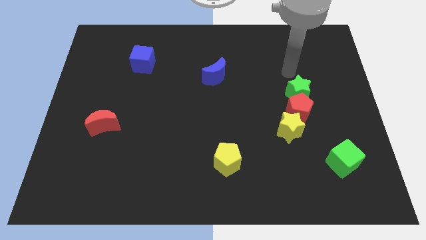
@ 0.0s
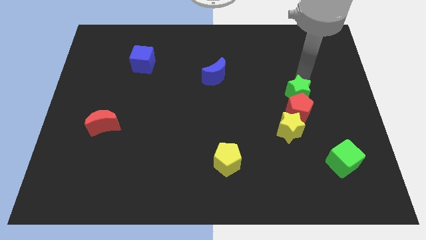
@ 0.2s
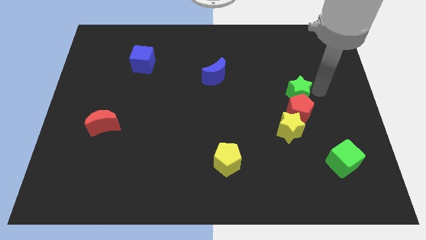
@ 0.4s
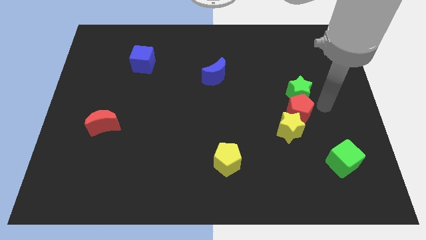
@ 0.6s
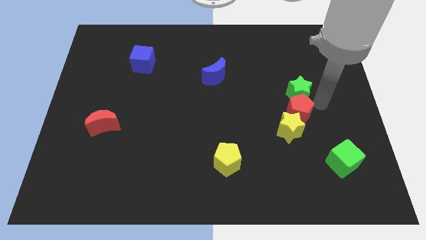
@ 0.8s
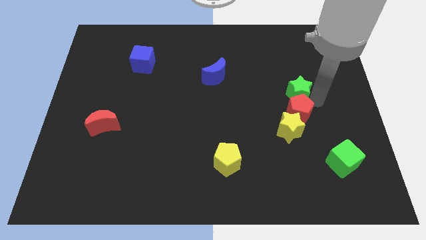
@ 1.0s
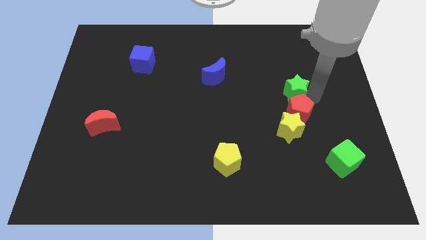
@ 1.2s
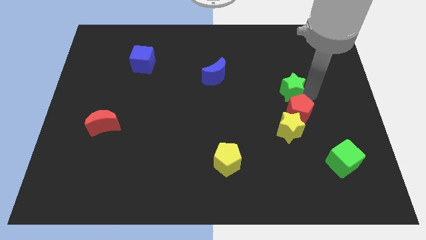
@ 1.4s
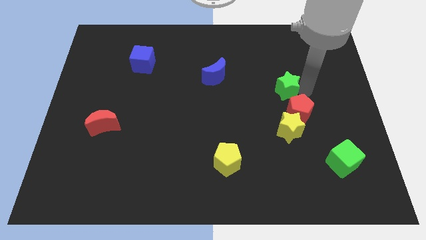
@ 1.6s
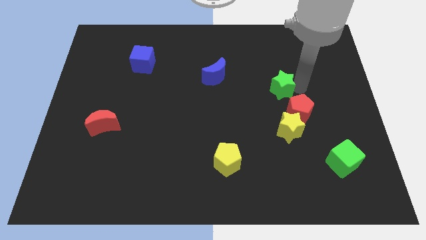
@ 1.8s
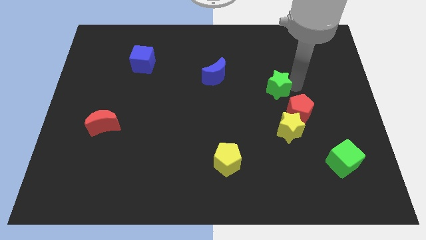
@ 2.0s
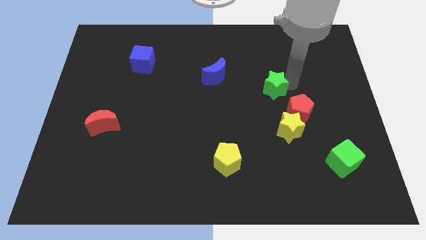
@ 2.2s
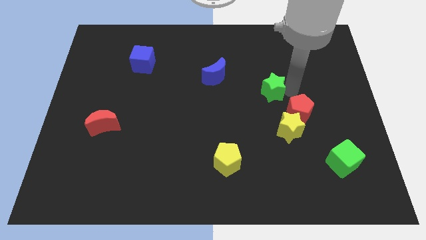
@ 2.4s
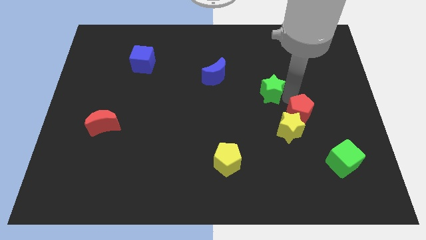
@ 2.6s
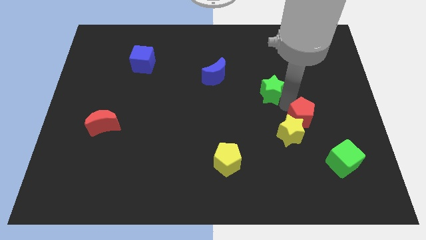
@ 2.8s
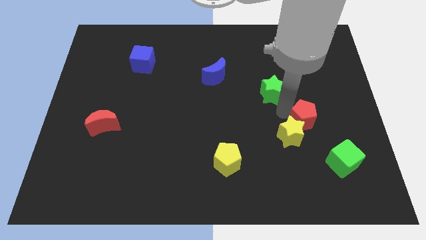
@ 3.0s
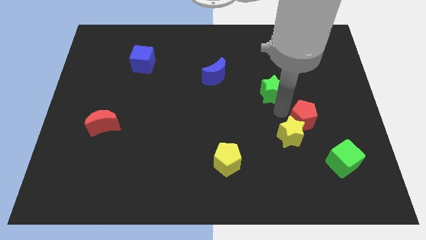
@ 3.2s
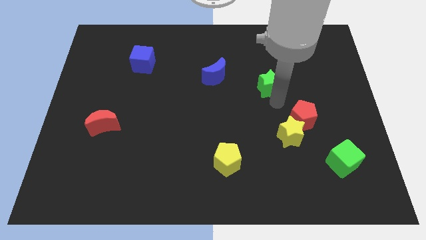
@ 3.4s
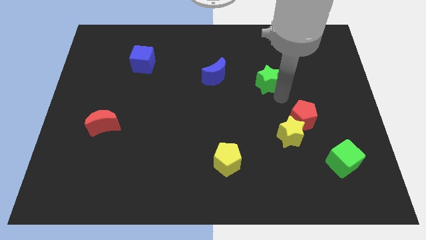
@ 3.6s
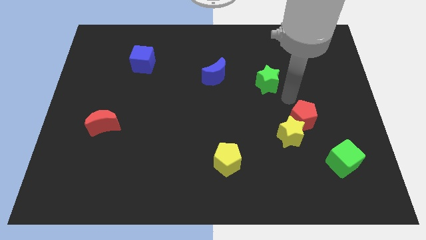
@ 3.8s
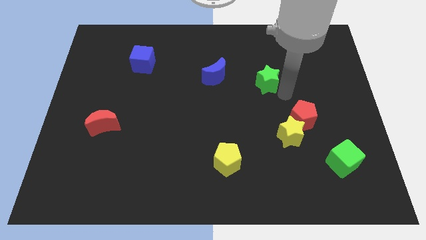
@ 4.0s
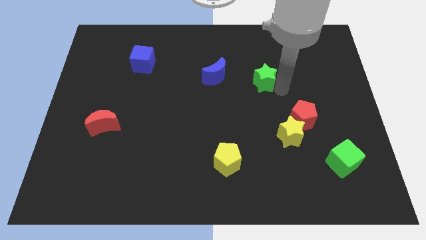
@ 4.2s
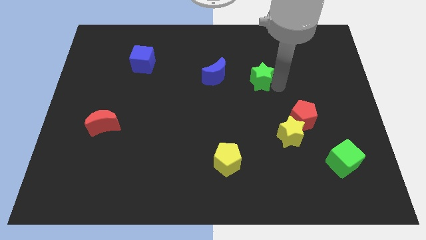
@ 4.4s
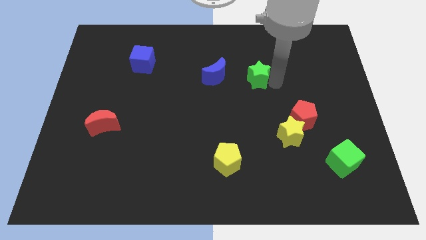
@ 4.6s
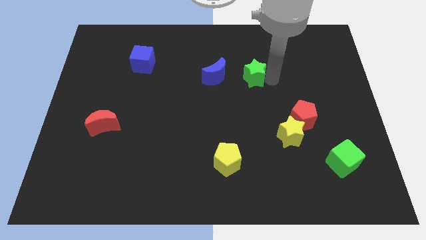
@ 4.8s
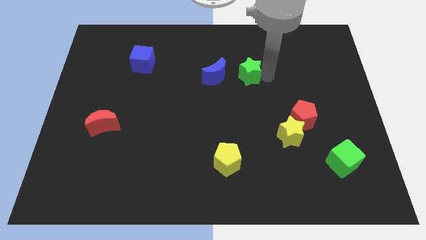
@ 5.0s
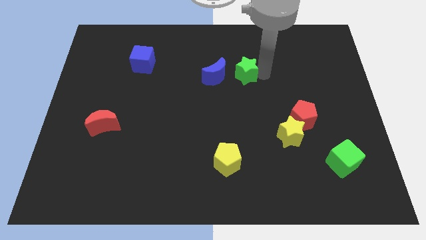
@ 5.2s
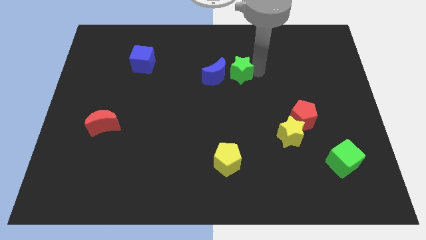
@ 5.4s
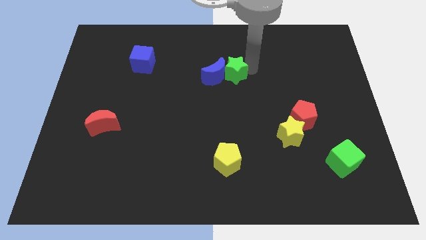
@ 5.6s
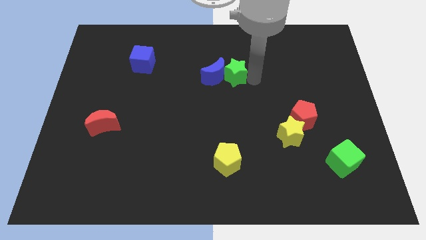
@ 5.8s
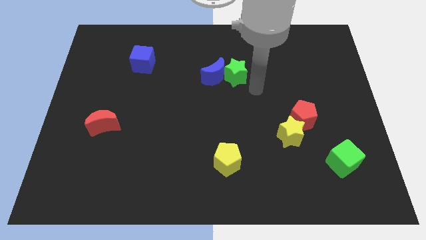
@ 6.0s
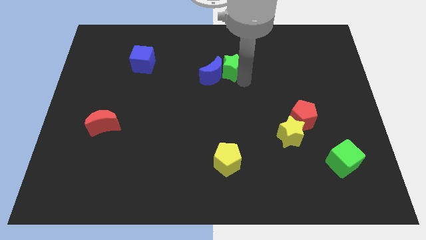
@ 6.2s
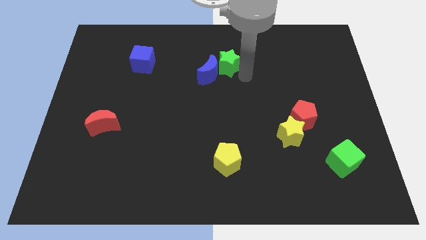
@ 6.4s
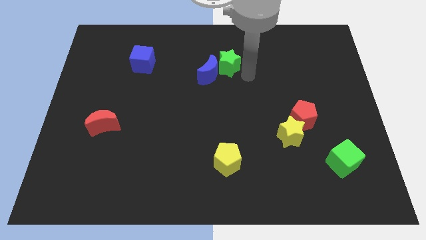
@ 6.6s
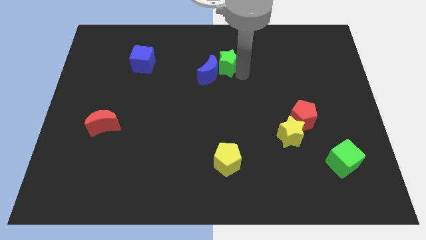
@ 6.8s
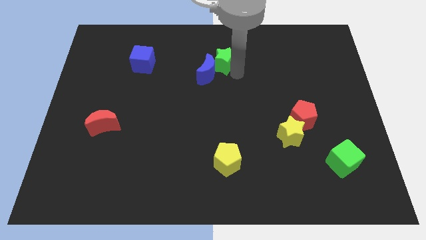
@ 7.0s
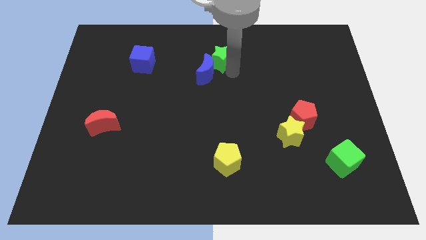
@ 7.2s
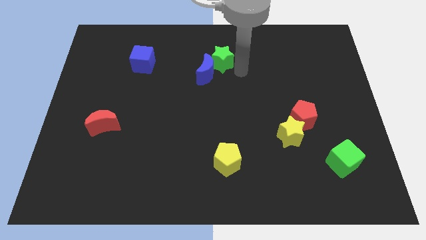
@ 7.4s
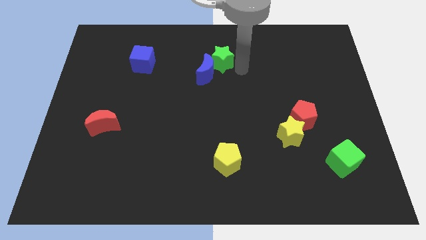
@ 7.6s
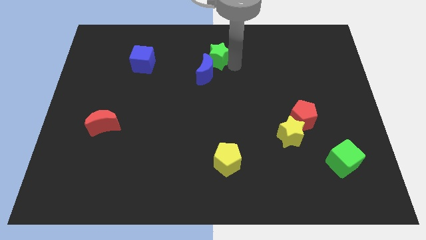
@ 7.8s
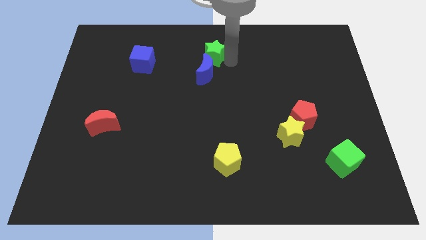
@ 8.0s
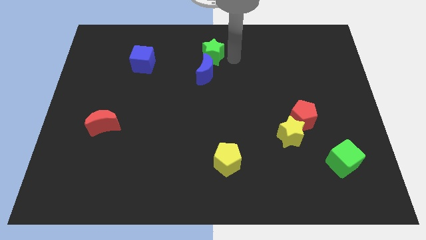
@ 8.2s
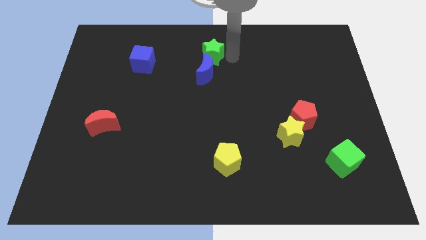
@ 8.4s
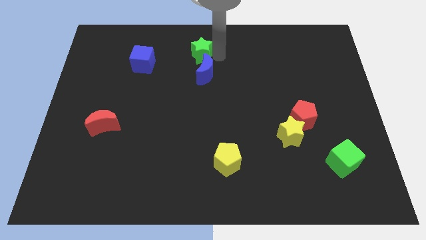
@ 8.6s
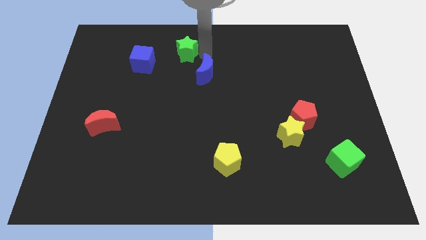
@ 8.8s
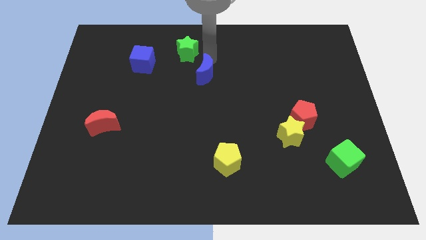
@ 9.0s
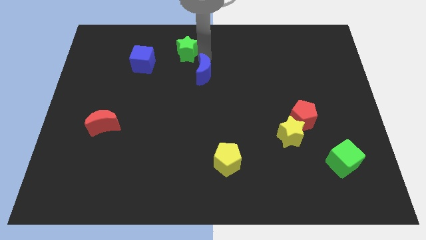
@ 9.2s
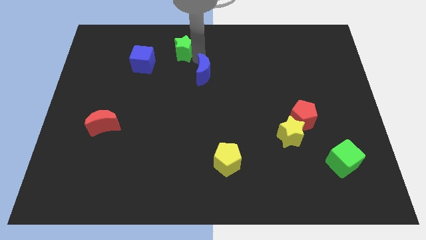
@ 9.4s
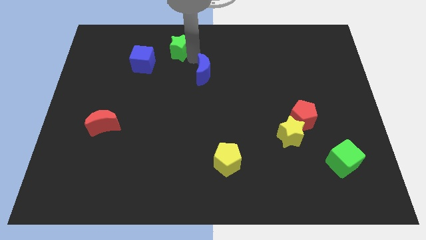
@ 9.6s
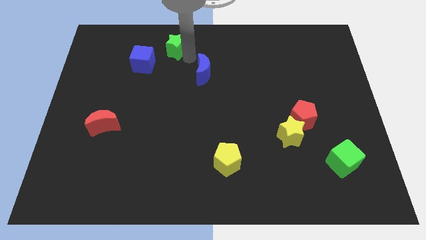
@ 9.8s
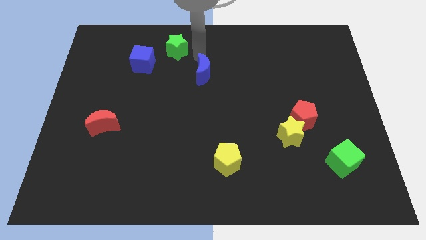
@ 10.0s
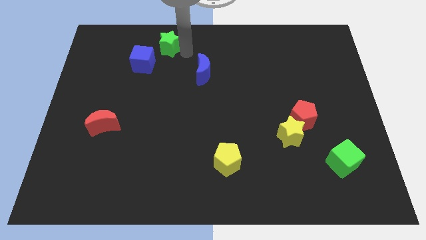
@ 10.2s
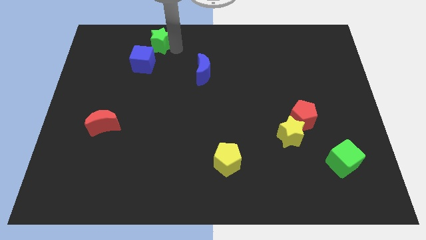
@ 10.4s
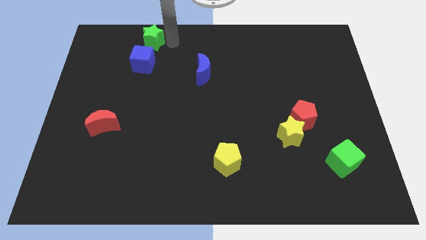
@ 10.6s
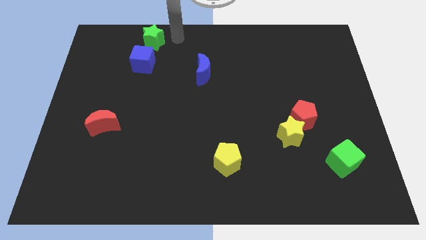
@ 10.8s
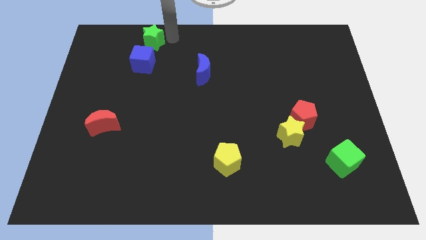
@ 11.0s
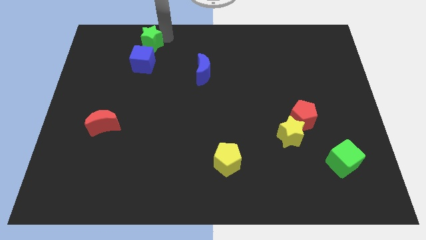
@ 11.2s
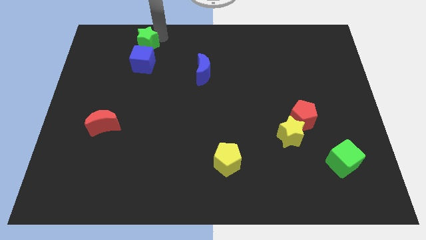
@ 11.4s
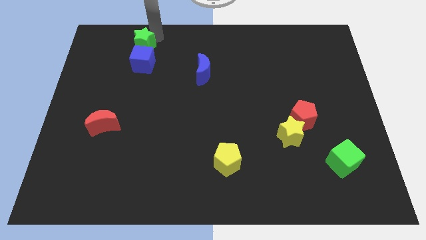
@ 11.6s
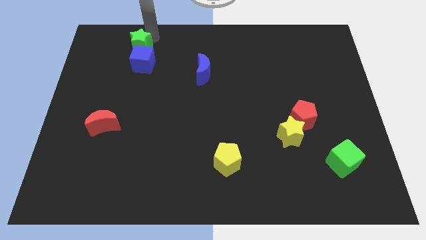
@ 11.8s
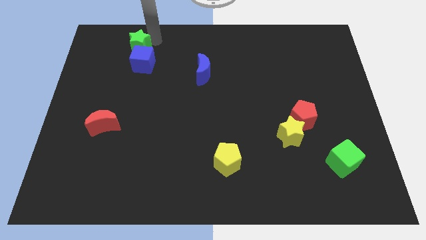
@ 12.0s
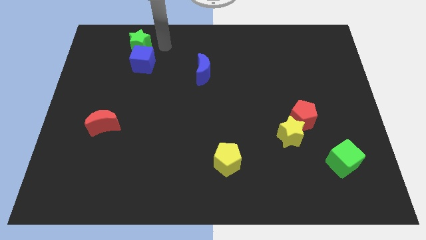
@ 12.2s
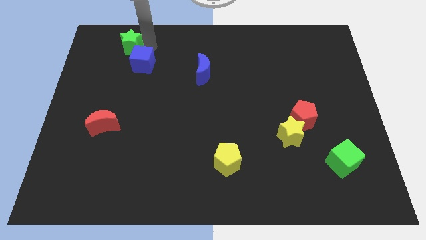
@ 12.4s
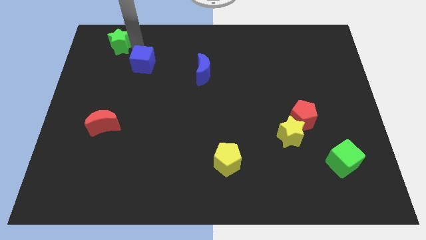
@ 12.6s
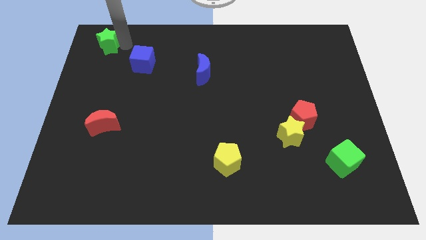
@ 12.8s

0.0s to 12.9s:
slide the green star to the upper left corner
